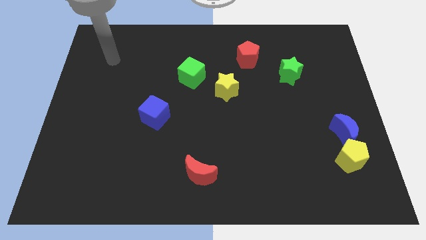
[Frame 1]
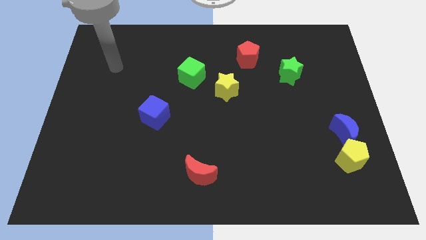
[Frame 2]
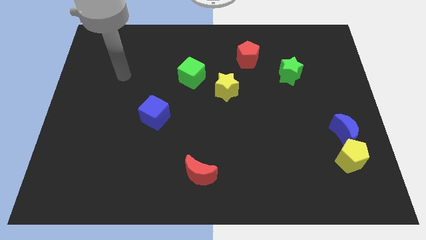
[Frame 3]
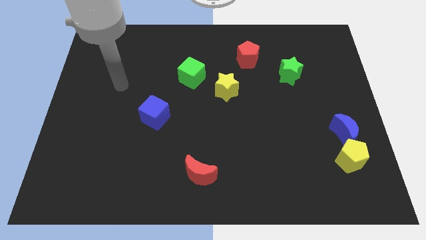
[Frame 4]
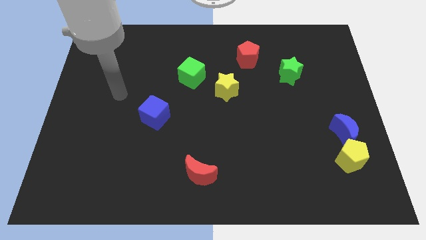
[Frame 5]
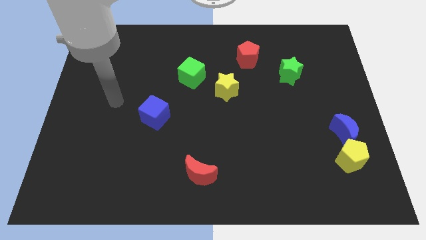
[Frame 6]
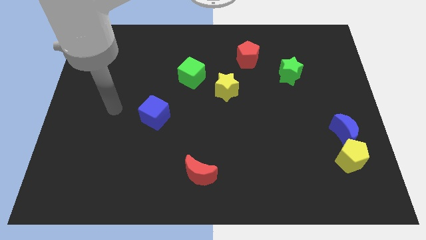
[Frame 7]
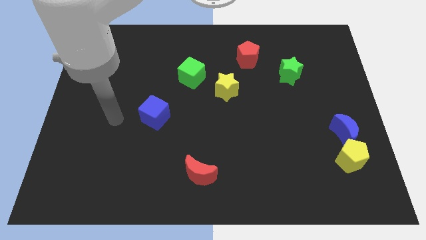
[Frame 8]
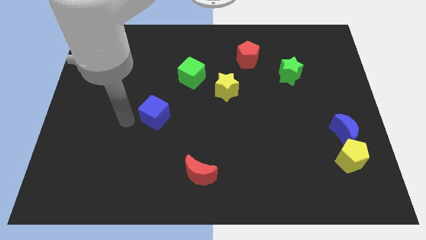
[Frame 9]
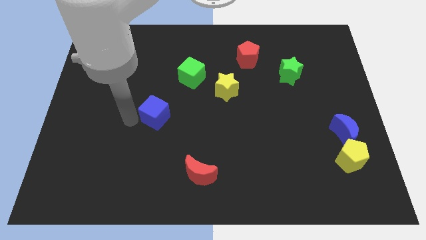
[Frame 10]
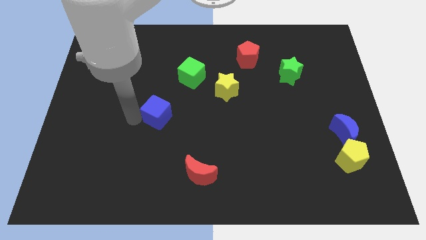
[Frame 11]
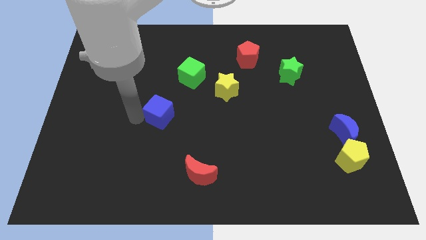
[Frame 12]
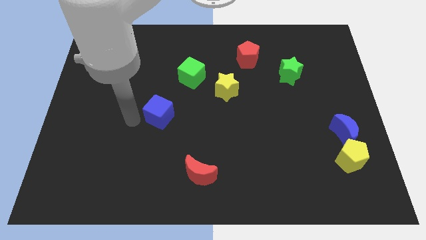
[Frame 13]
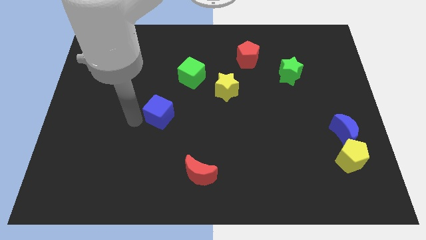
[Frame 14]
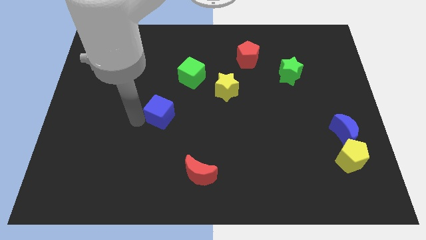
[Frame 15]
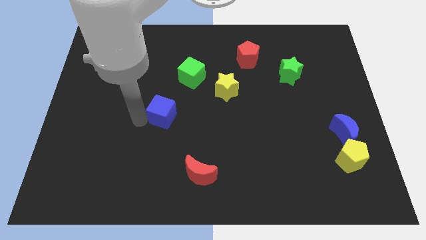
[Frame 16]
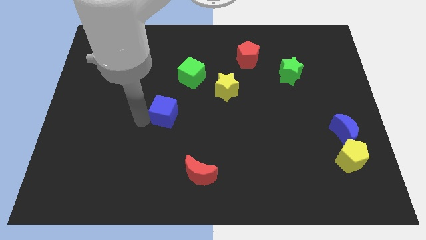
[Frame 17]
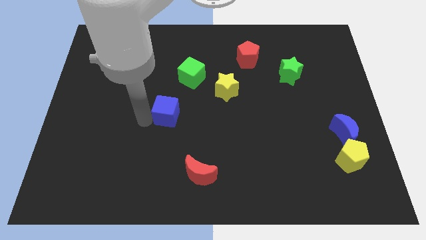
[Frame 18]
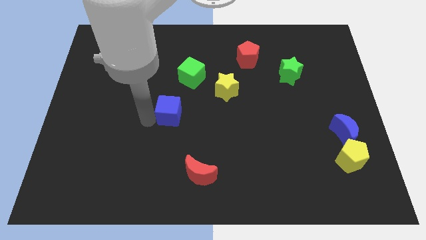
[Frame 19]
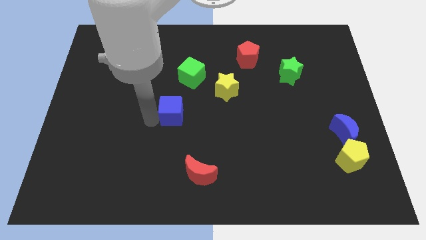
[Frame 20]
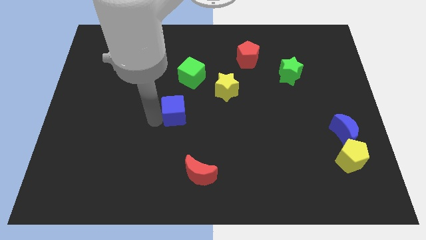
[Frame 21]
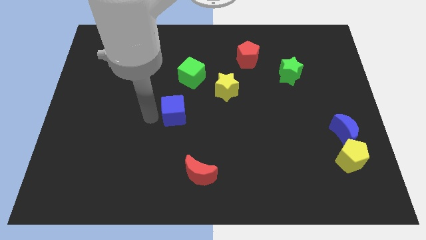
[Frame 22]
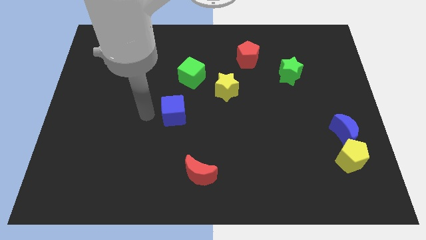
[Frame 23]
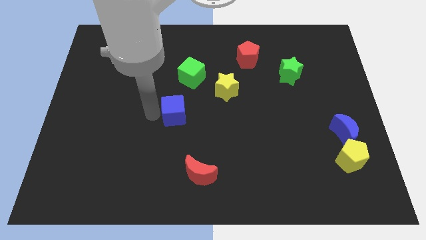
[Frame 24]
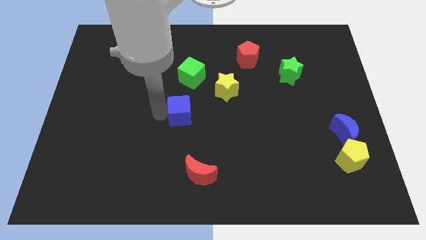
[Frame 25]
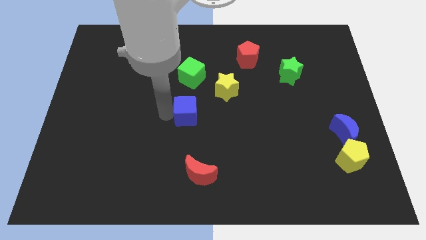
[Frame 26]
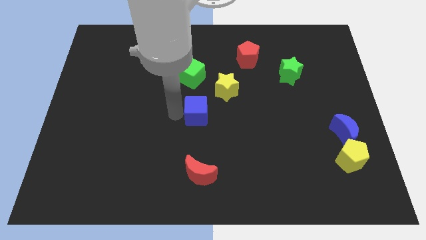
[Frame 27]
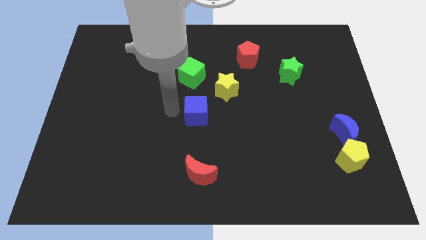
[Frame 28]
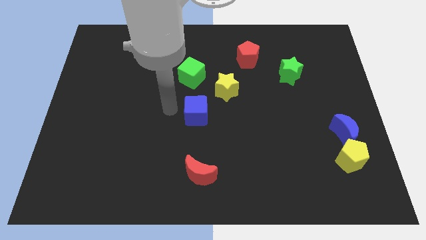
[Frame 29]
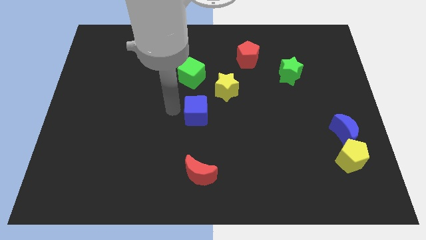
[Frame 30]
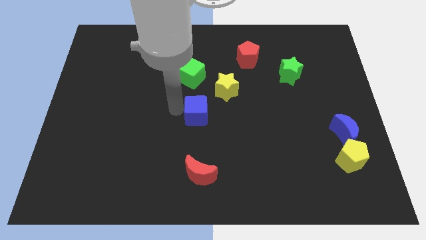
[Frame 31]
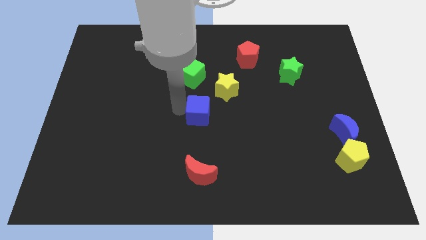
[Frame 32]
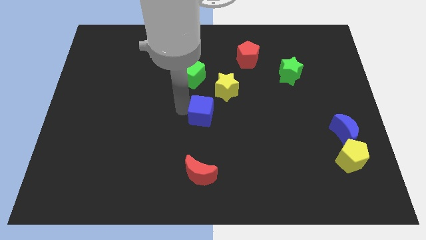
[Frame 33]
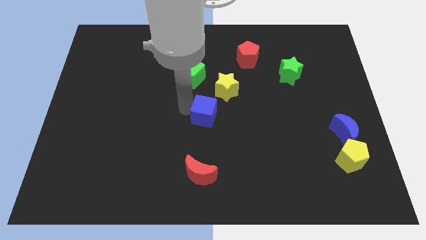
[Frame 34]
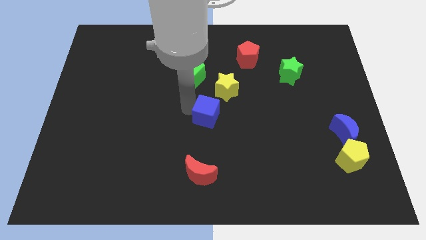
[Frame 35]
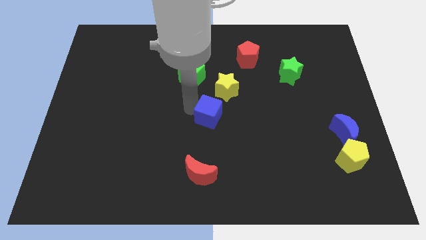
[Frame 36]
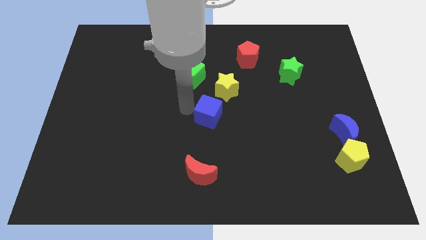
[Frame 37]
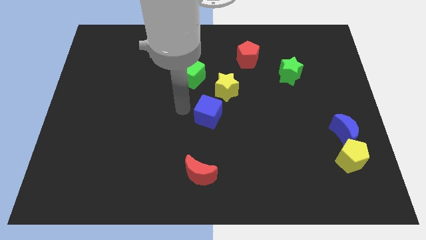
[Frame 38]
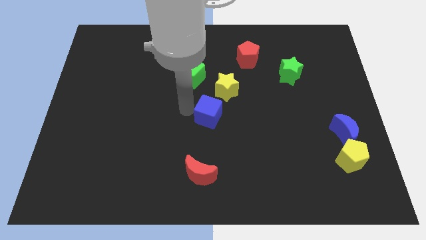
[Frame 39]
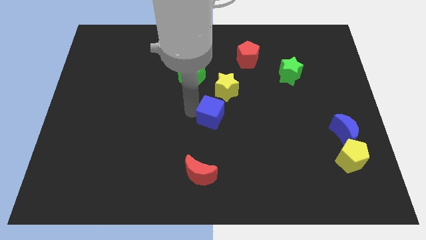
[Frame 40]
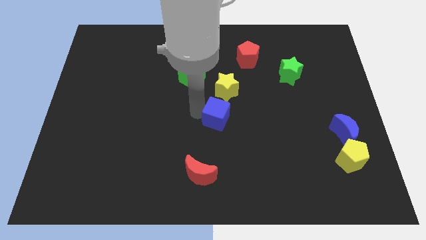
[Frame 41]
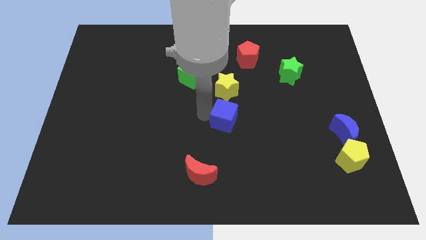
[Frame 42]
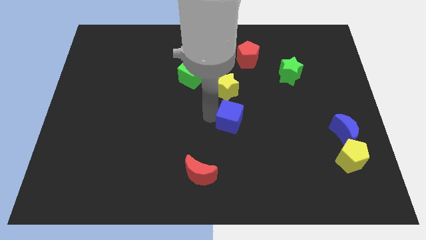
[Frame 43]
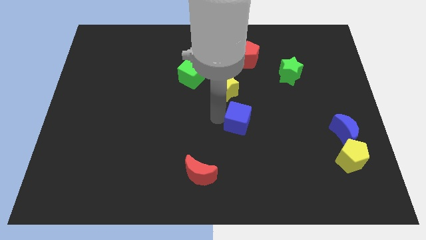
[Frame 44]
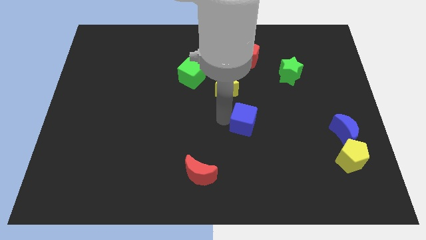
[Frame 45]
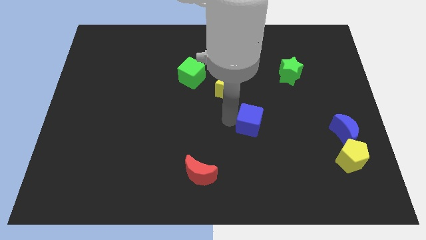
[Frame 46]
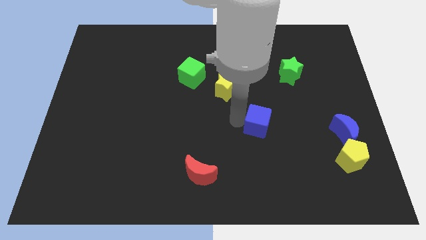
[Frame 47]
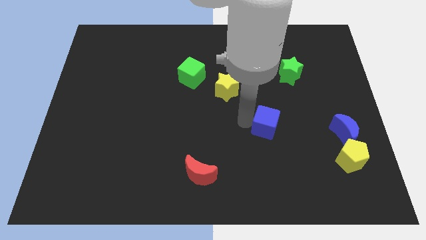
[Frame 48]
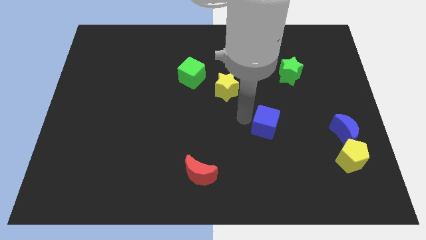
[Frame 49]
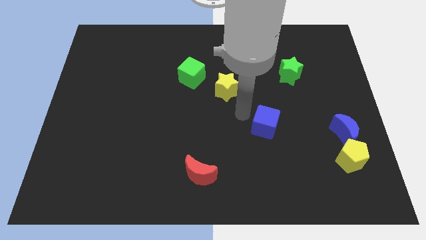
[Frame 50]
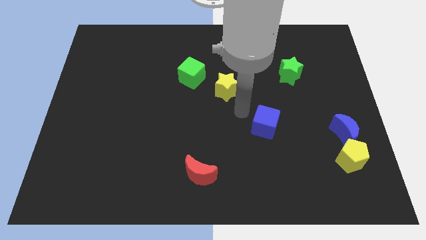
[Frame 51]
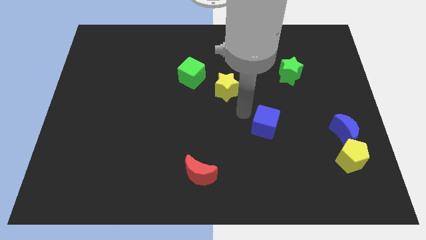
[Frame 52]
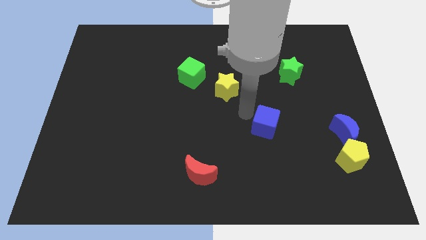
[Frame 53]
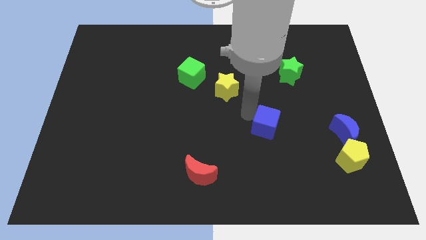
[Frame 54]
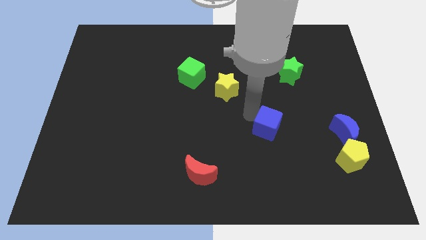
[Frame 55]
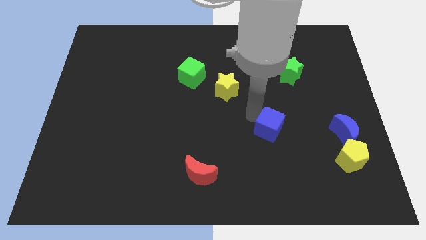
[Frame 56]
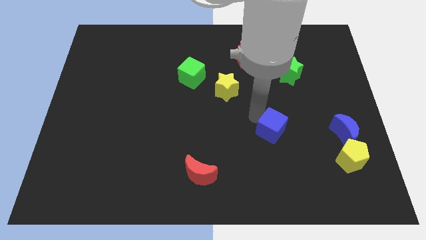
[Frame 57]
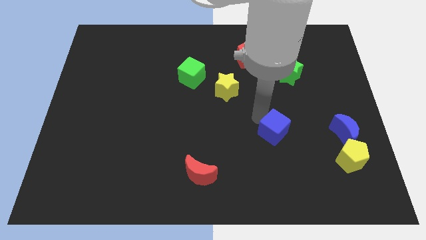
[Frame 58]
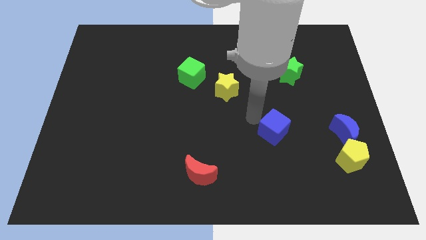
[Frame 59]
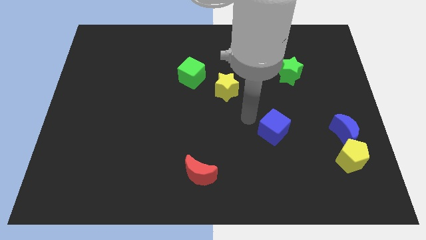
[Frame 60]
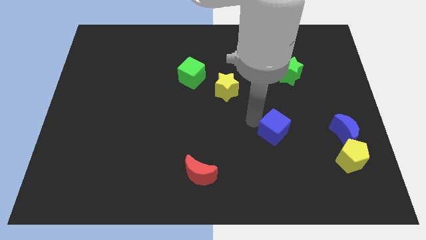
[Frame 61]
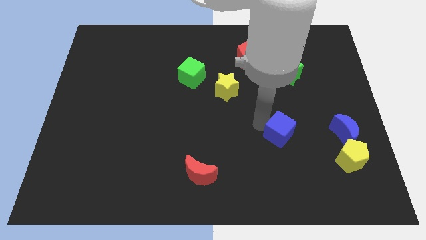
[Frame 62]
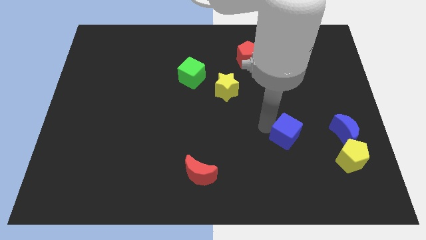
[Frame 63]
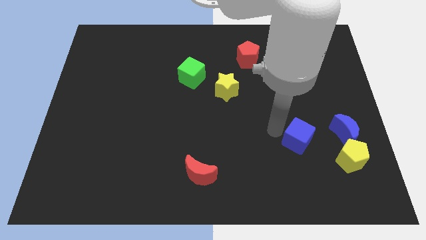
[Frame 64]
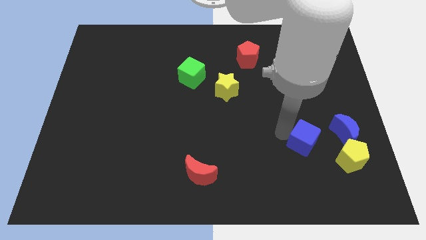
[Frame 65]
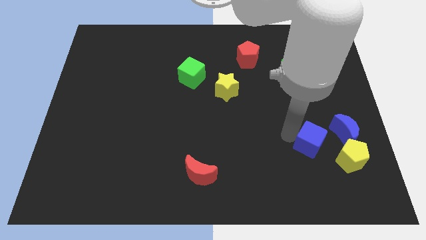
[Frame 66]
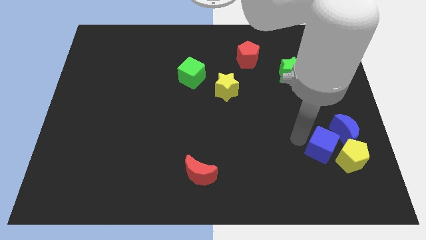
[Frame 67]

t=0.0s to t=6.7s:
move the blue cube next to the yellow pentagon

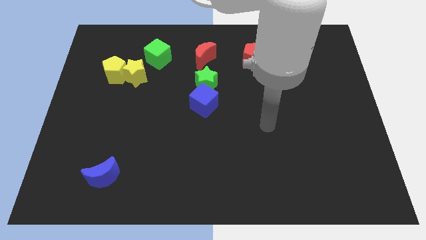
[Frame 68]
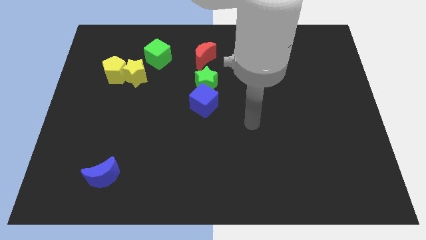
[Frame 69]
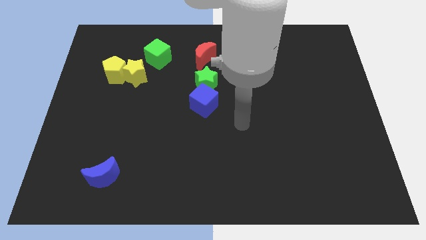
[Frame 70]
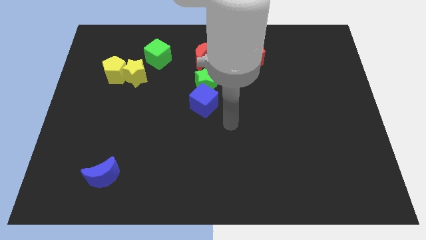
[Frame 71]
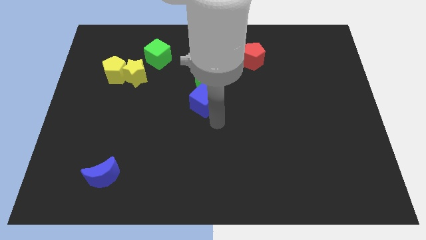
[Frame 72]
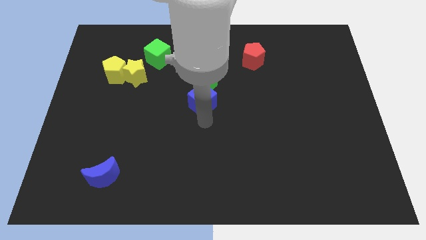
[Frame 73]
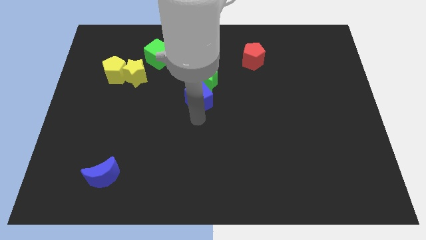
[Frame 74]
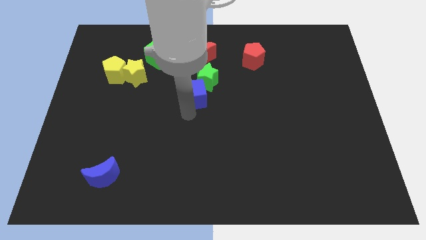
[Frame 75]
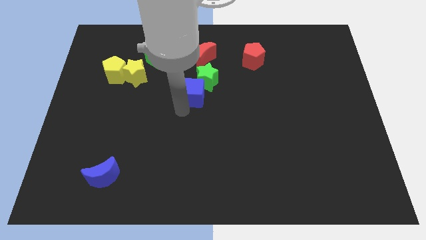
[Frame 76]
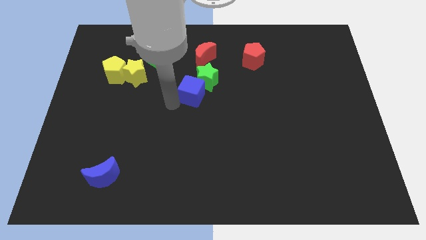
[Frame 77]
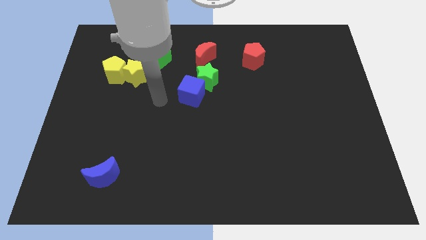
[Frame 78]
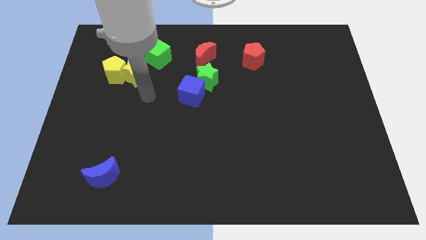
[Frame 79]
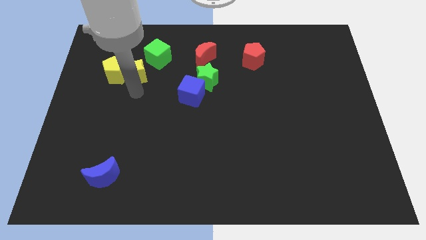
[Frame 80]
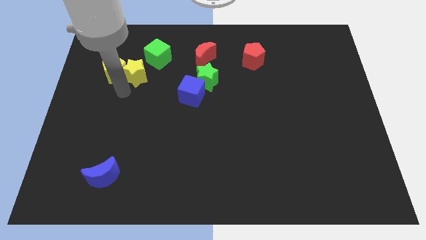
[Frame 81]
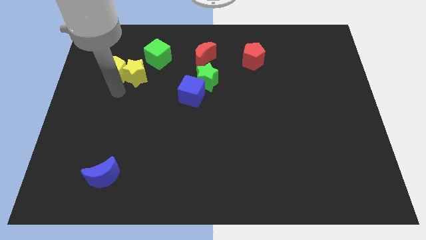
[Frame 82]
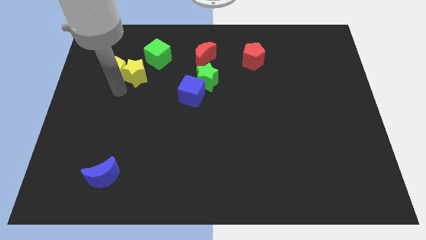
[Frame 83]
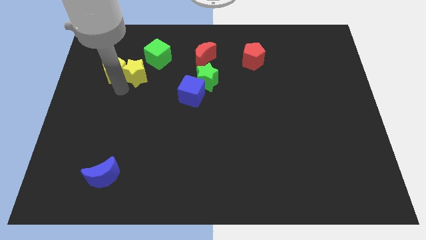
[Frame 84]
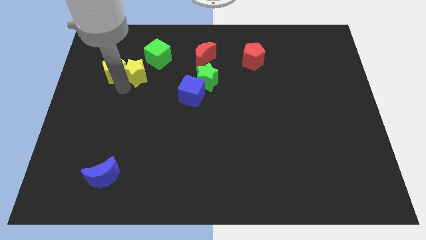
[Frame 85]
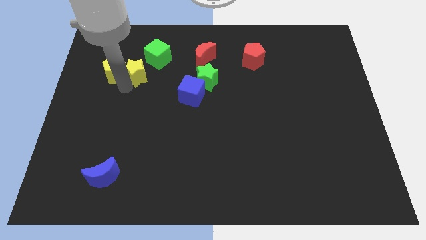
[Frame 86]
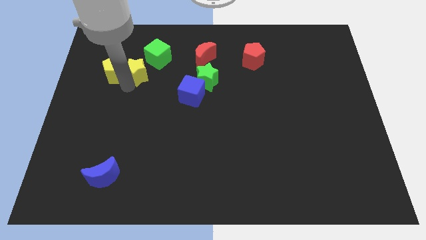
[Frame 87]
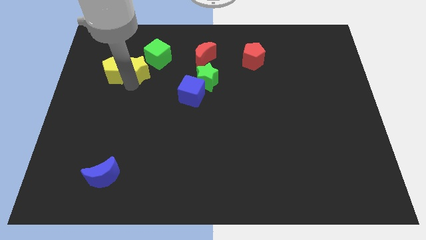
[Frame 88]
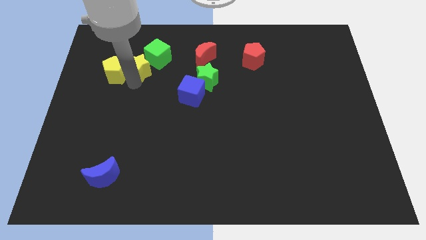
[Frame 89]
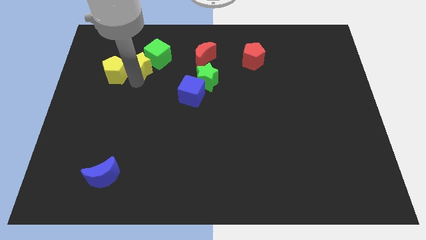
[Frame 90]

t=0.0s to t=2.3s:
put the yellow star towards the green cube
